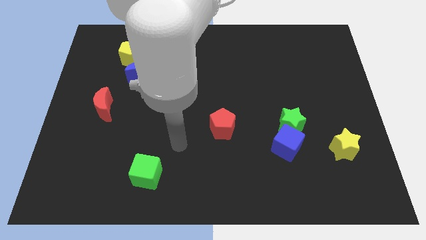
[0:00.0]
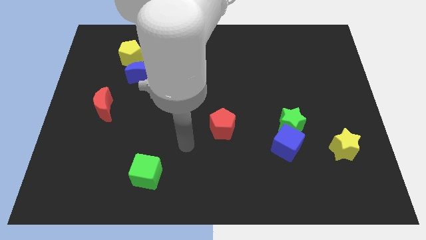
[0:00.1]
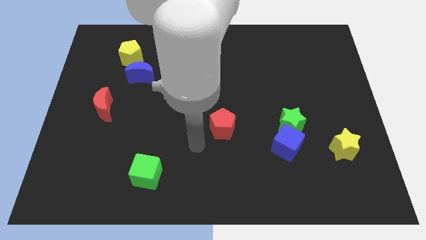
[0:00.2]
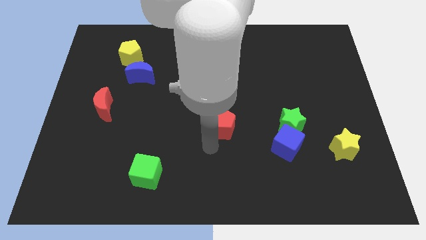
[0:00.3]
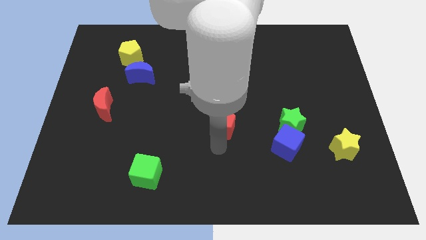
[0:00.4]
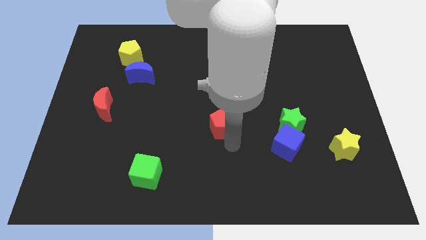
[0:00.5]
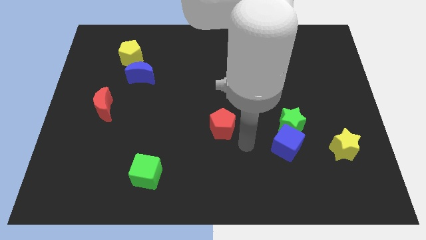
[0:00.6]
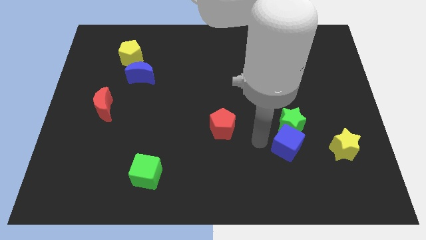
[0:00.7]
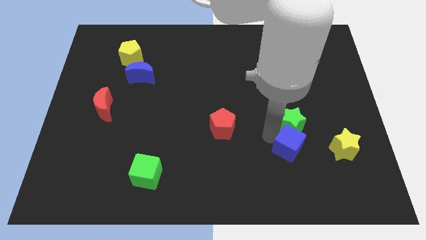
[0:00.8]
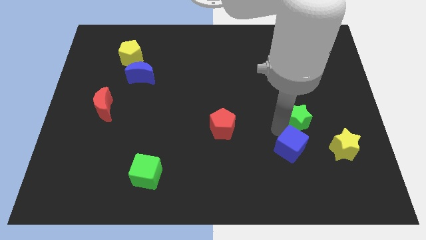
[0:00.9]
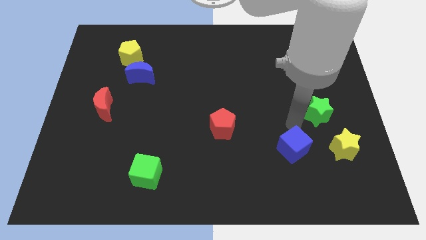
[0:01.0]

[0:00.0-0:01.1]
move the blue cube away from the green star

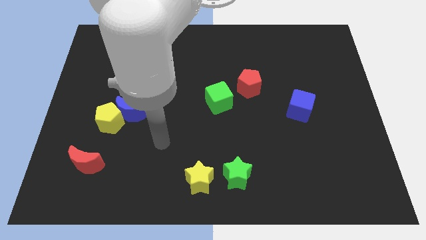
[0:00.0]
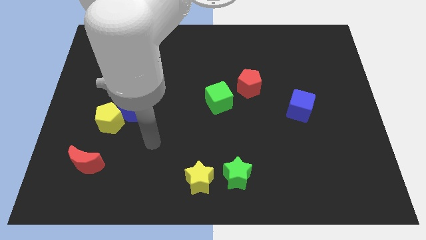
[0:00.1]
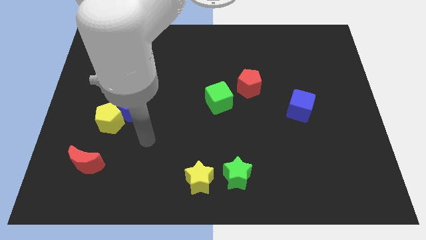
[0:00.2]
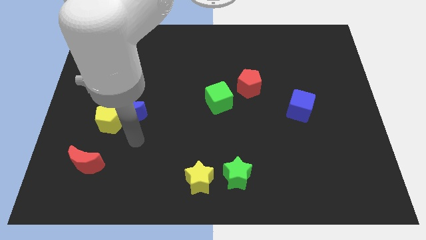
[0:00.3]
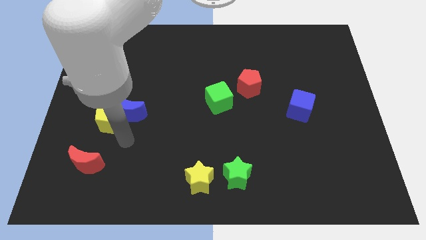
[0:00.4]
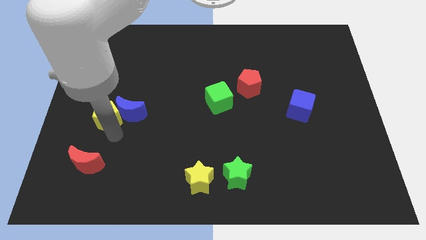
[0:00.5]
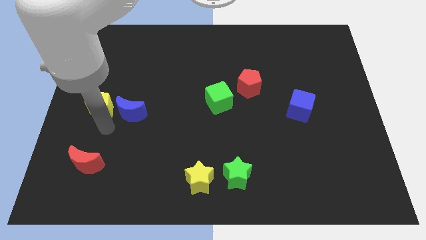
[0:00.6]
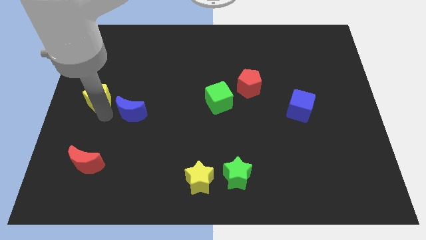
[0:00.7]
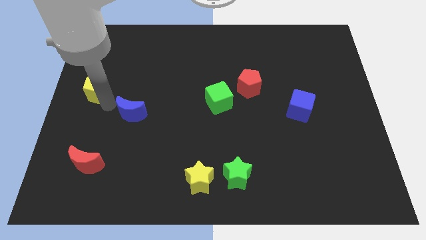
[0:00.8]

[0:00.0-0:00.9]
move the blue moon away from the yellow pentagon

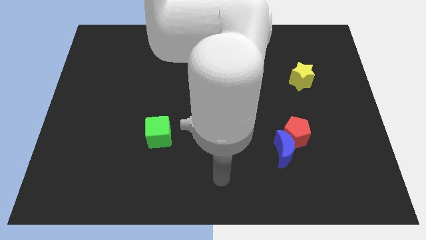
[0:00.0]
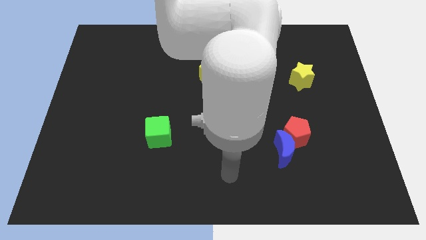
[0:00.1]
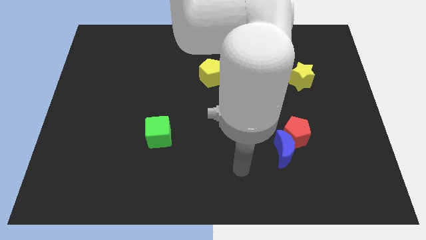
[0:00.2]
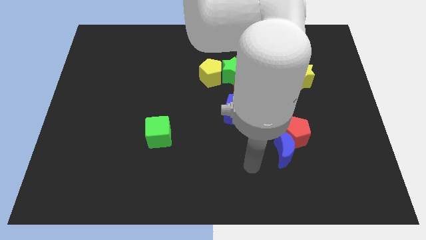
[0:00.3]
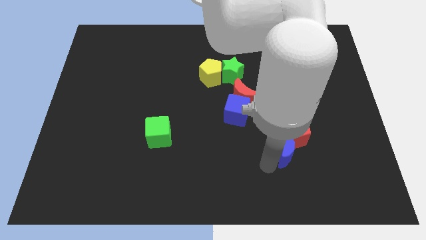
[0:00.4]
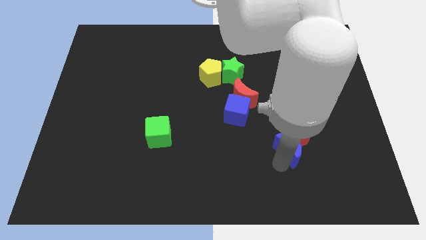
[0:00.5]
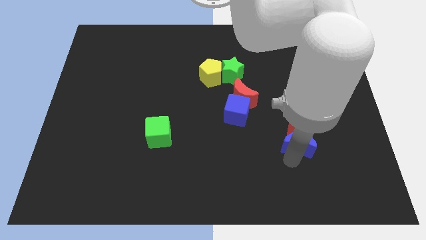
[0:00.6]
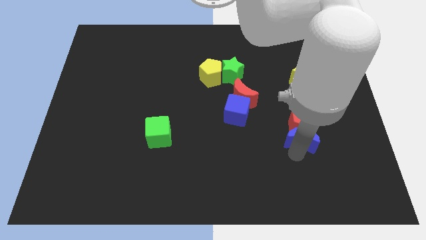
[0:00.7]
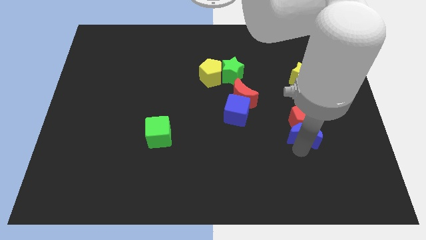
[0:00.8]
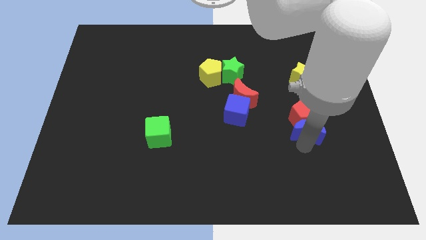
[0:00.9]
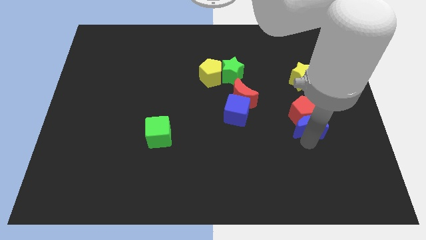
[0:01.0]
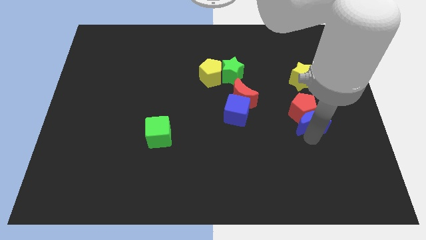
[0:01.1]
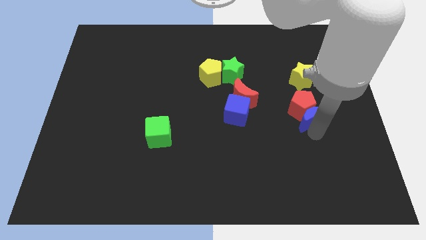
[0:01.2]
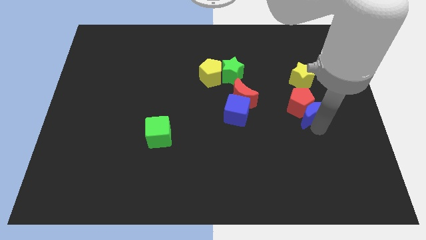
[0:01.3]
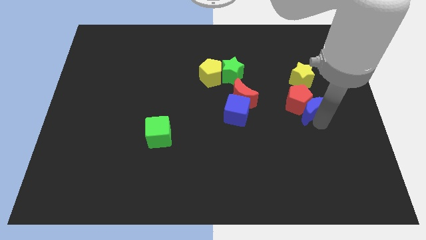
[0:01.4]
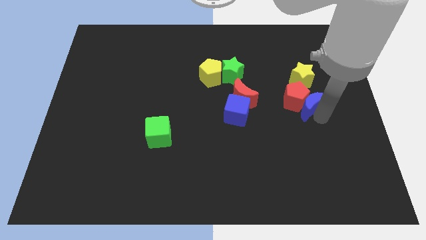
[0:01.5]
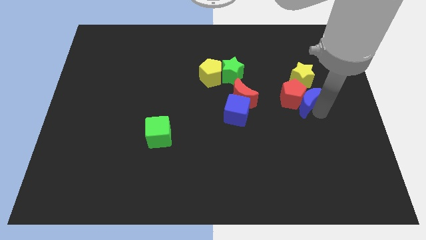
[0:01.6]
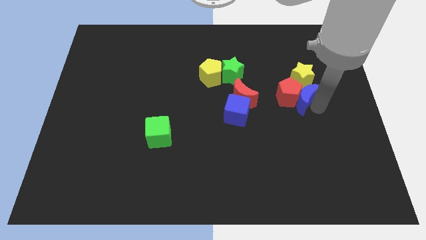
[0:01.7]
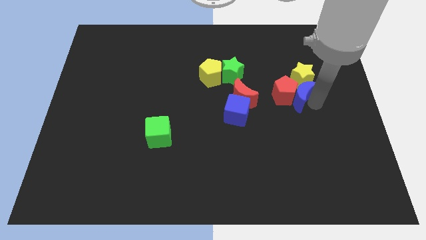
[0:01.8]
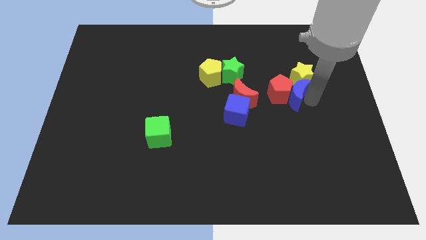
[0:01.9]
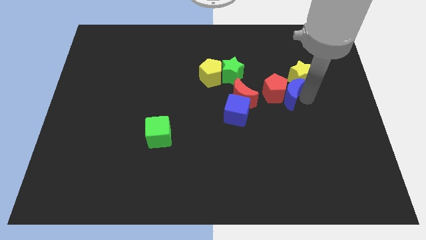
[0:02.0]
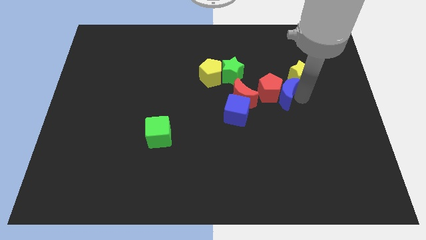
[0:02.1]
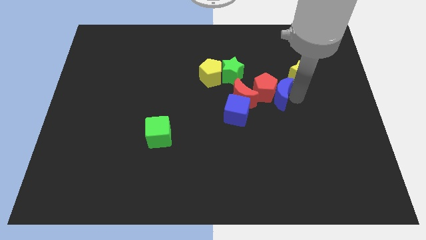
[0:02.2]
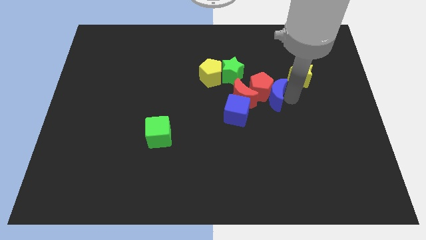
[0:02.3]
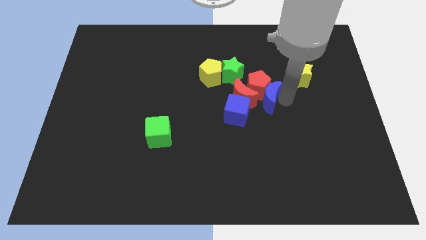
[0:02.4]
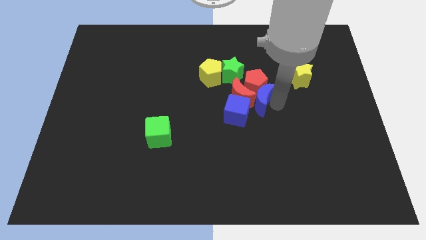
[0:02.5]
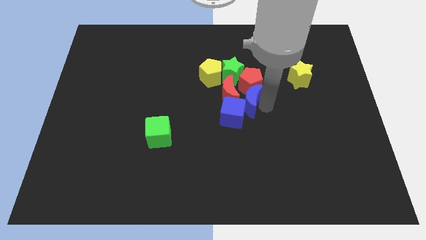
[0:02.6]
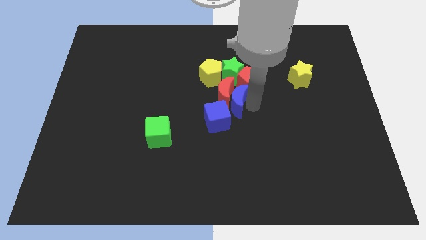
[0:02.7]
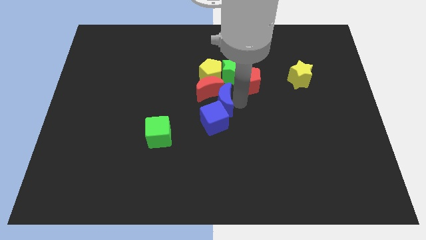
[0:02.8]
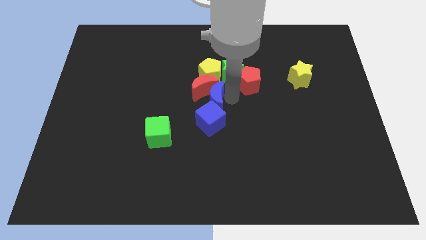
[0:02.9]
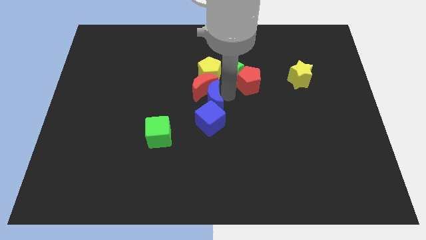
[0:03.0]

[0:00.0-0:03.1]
move the red pentagon away from the blue moon

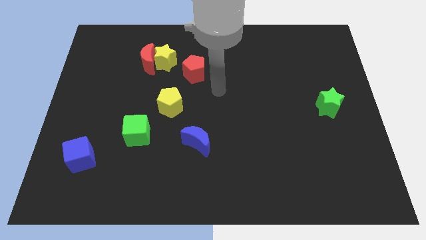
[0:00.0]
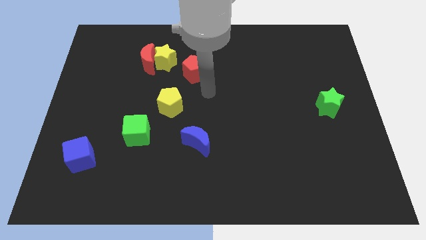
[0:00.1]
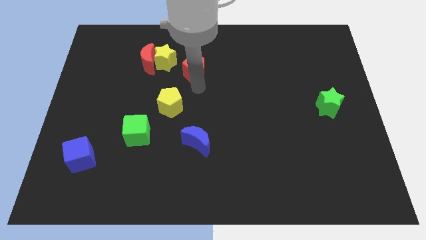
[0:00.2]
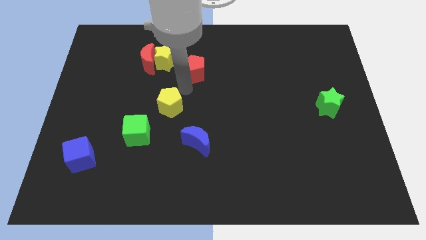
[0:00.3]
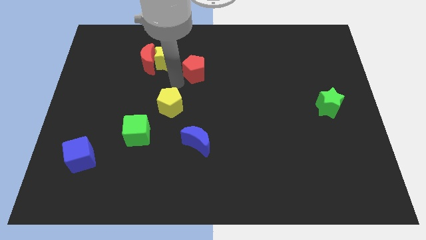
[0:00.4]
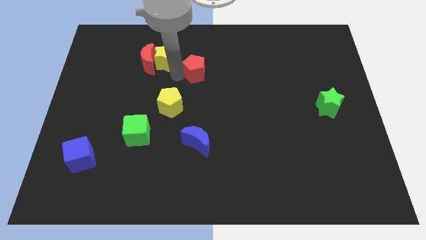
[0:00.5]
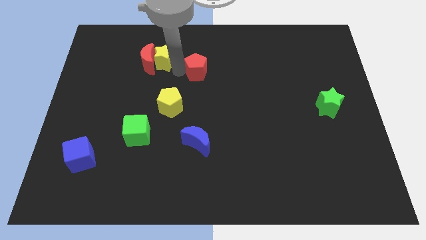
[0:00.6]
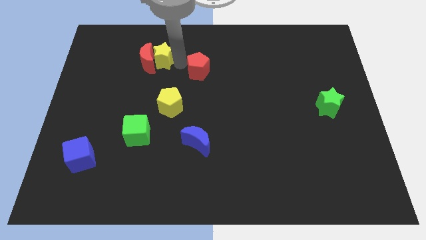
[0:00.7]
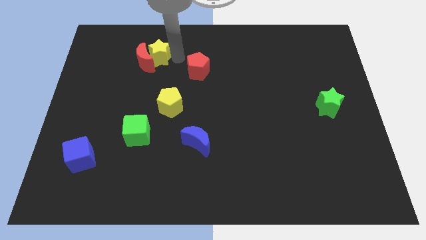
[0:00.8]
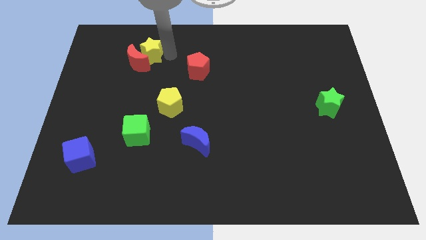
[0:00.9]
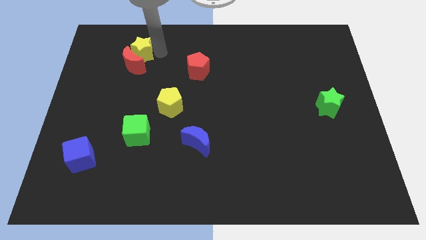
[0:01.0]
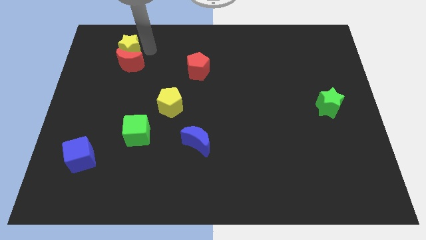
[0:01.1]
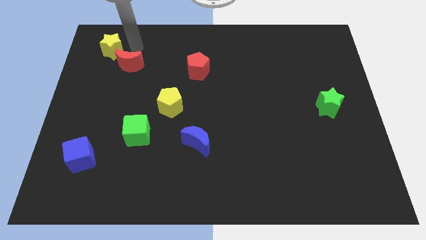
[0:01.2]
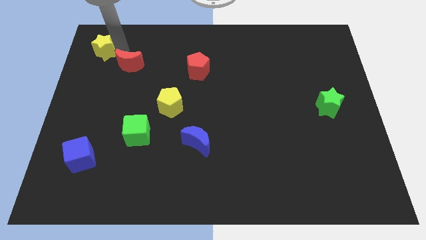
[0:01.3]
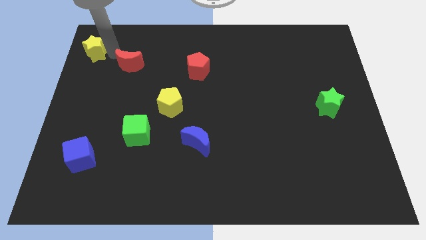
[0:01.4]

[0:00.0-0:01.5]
separate the red moon from the yellow star

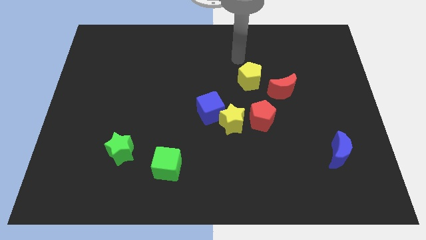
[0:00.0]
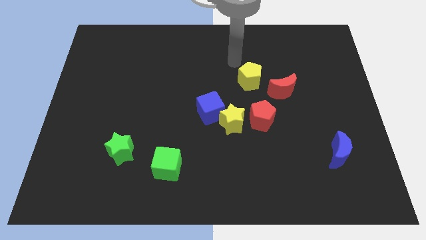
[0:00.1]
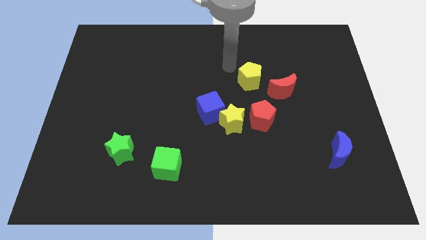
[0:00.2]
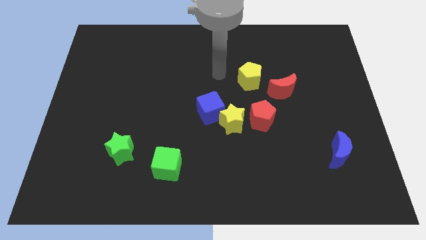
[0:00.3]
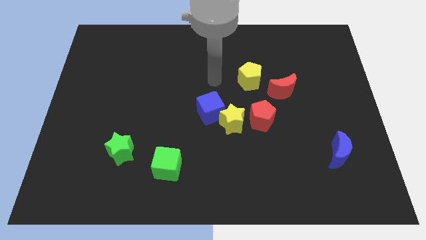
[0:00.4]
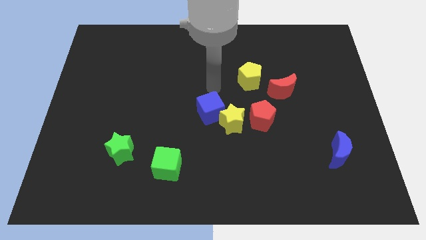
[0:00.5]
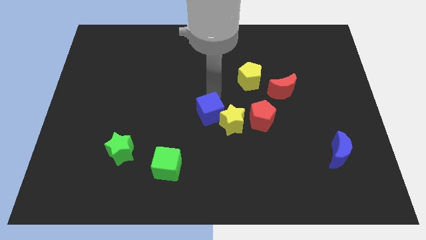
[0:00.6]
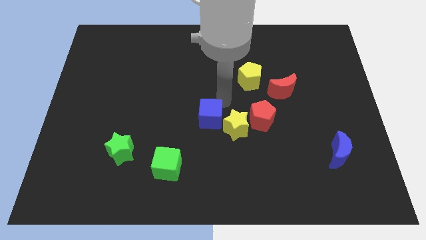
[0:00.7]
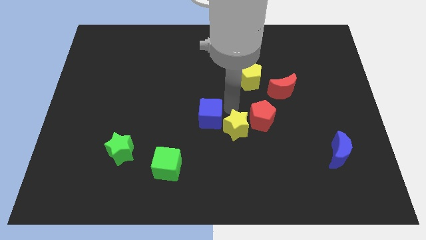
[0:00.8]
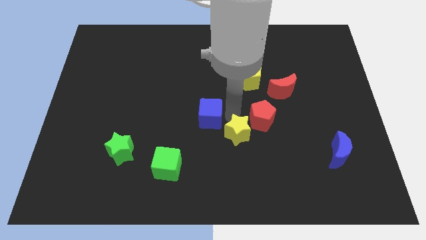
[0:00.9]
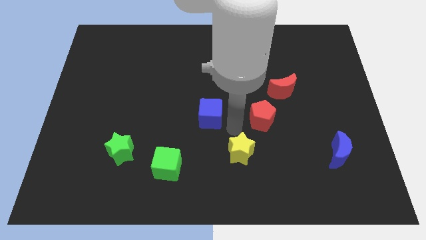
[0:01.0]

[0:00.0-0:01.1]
move the blue cube away from the yellow star

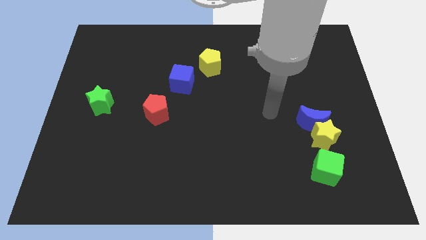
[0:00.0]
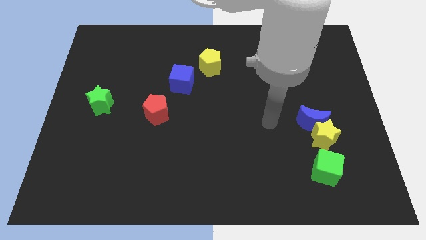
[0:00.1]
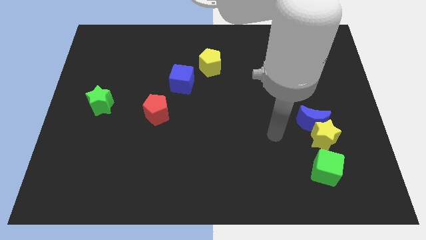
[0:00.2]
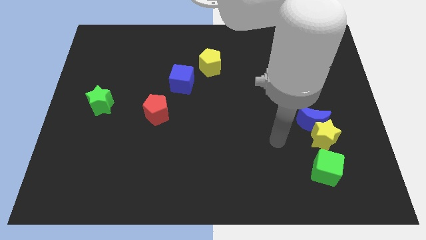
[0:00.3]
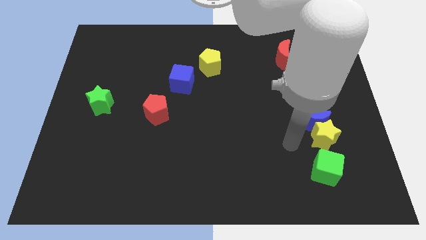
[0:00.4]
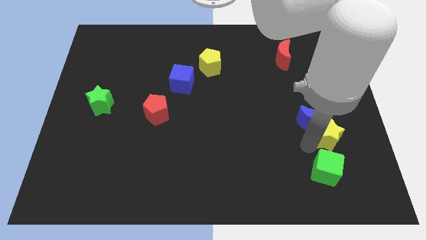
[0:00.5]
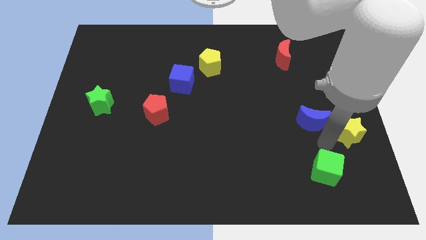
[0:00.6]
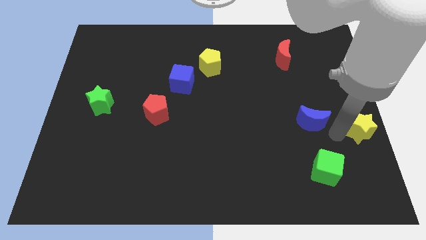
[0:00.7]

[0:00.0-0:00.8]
separate the blue moon from the yellow star

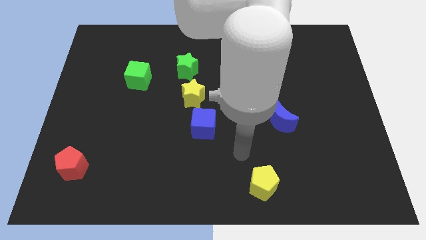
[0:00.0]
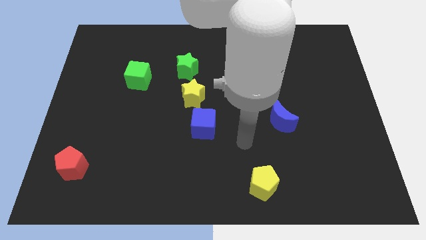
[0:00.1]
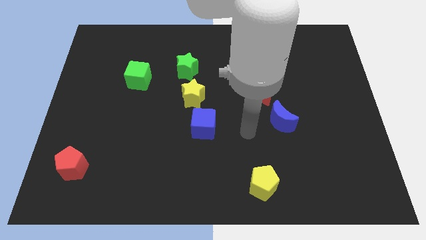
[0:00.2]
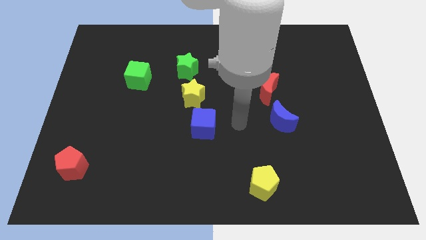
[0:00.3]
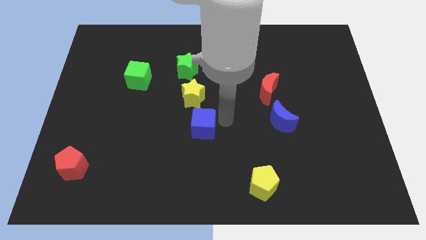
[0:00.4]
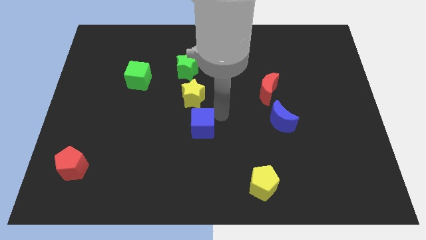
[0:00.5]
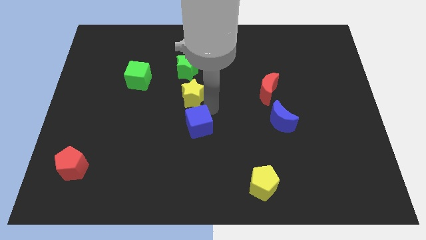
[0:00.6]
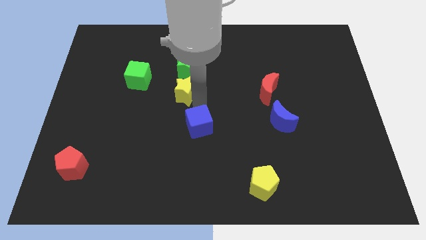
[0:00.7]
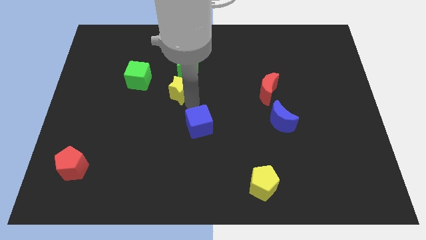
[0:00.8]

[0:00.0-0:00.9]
pull the blue cube apart from the yellow star
